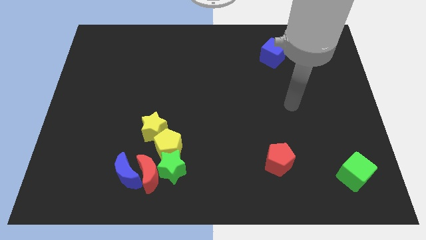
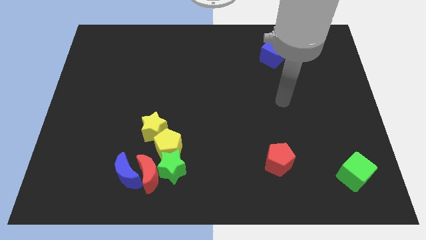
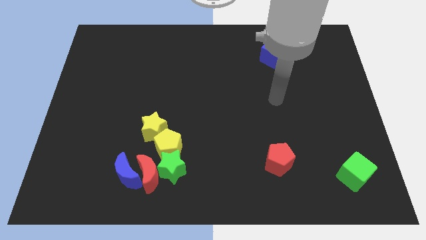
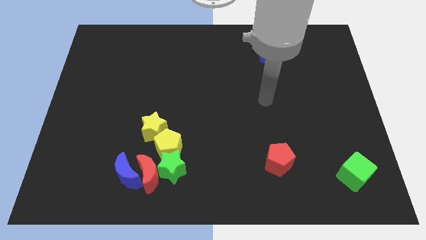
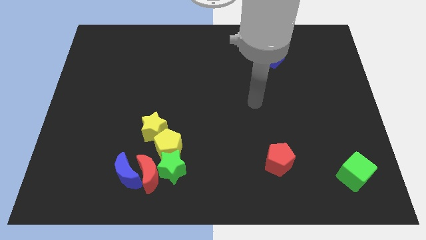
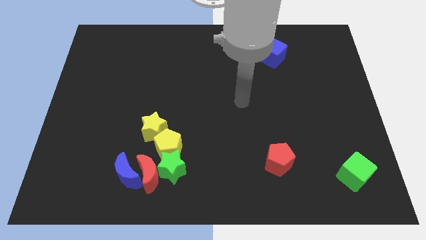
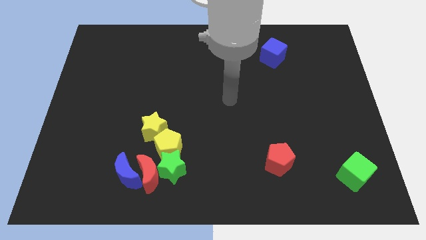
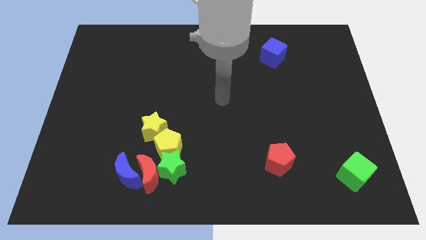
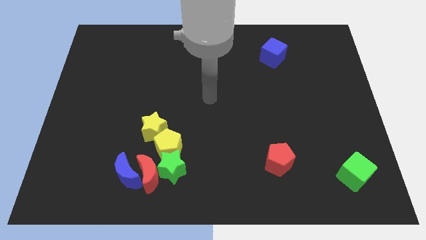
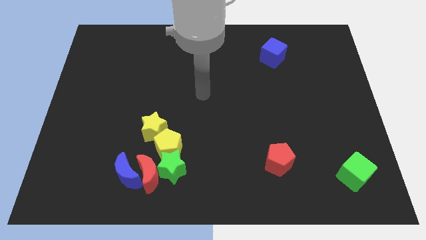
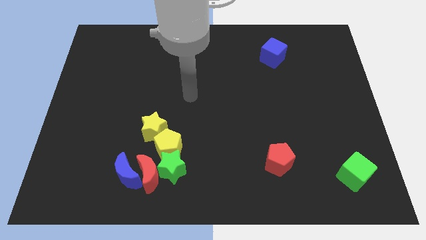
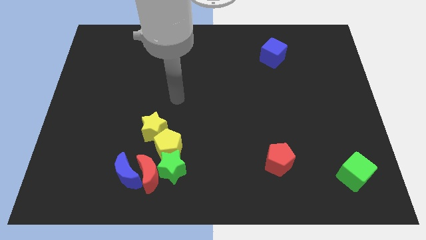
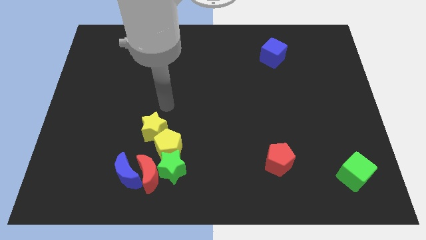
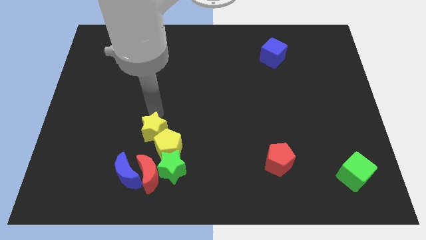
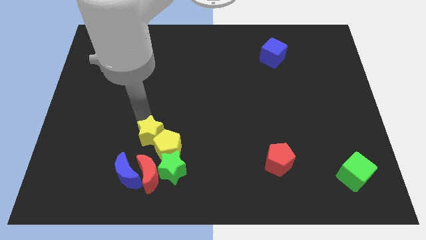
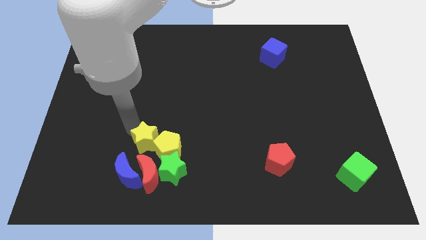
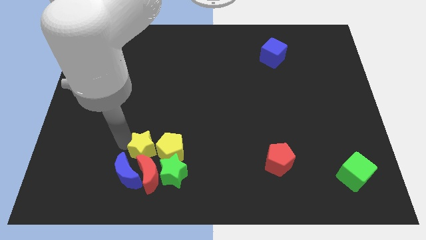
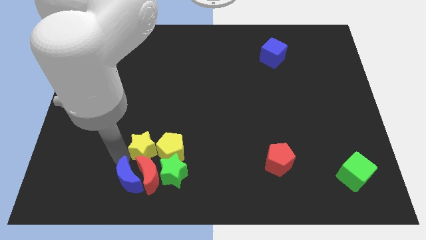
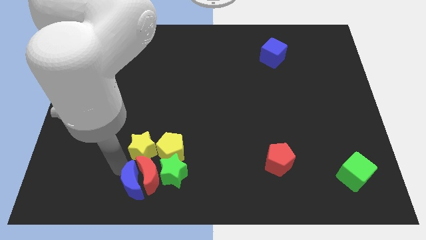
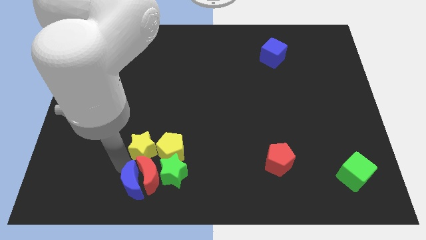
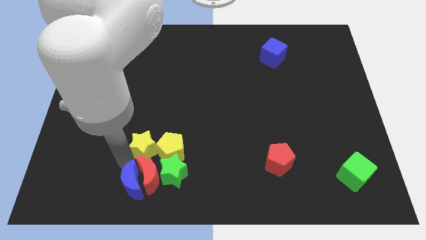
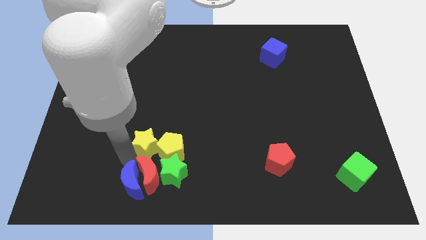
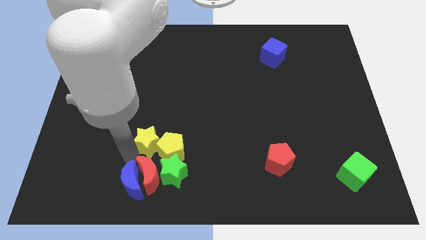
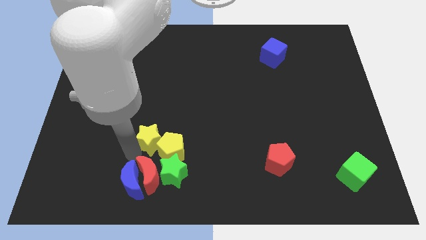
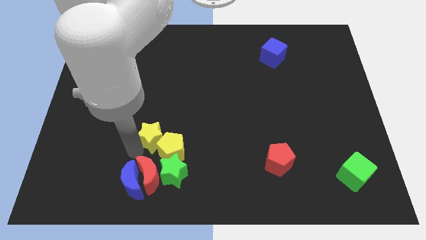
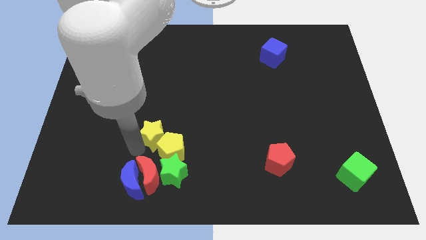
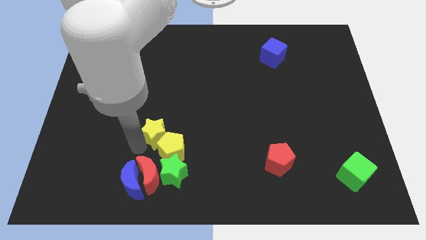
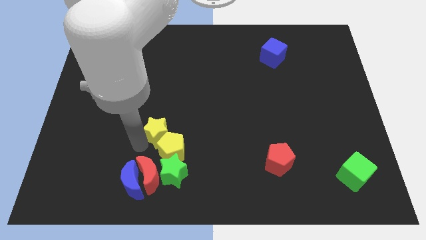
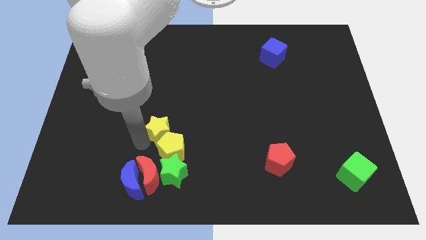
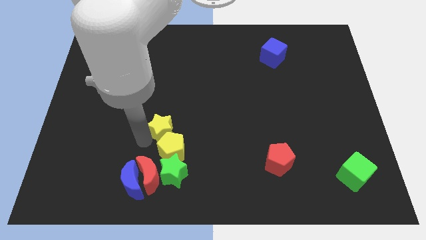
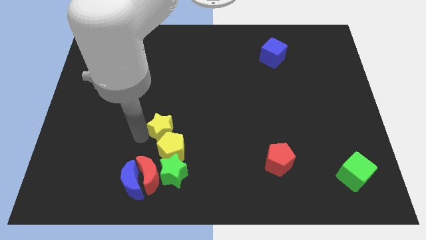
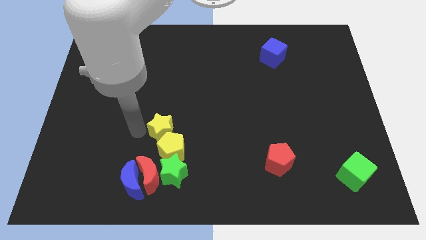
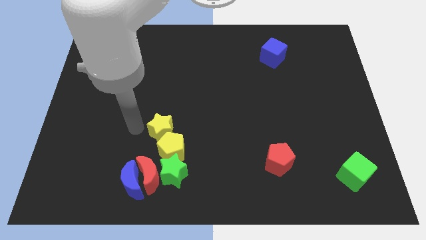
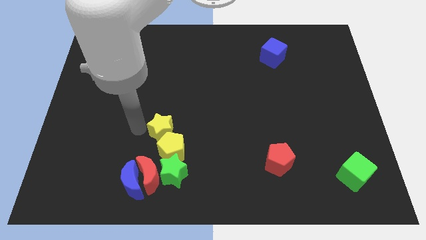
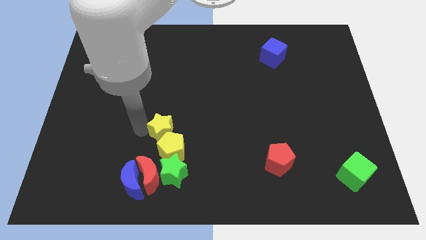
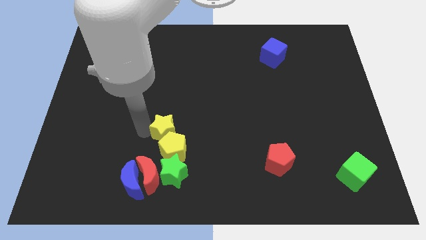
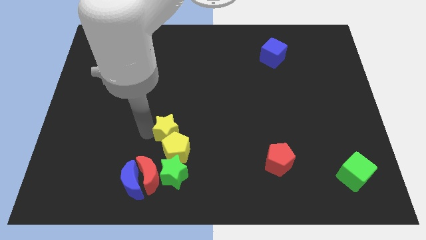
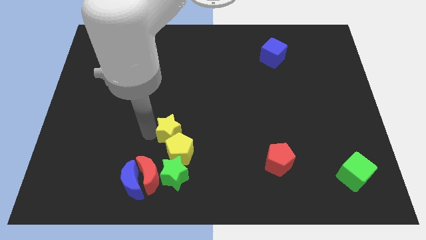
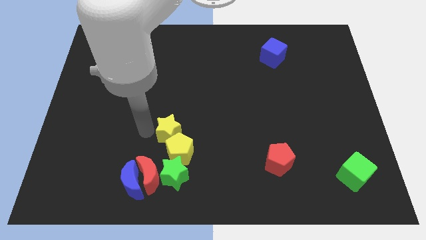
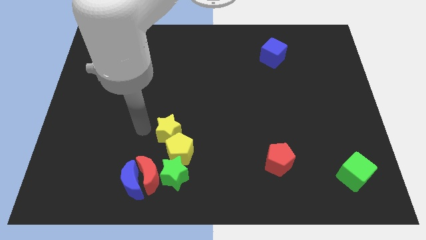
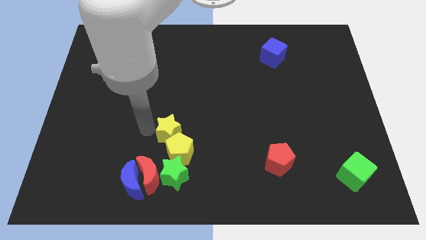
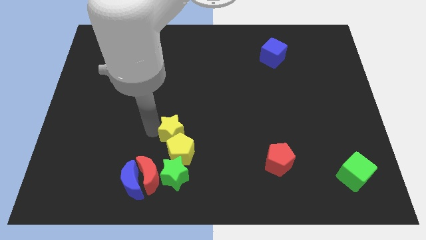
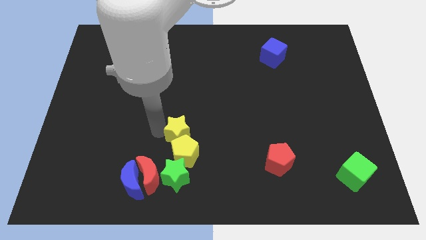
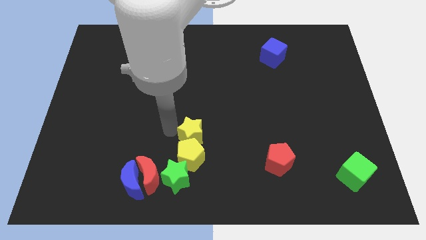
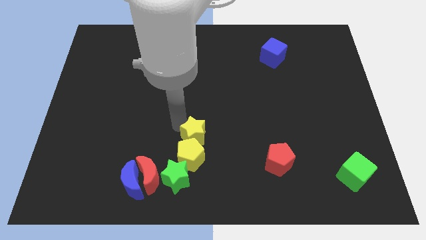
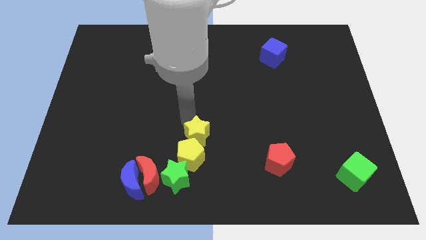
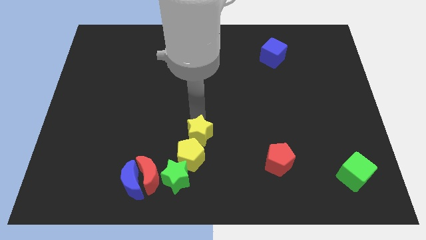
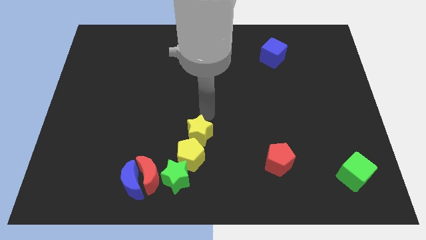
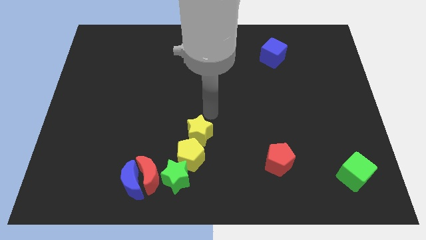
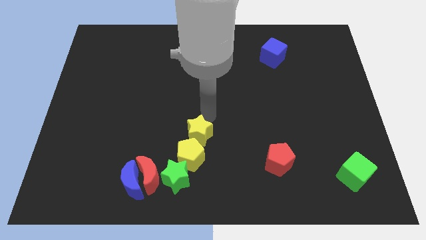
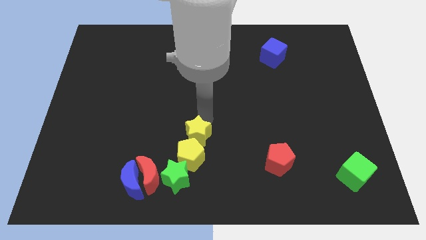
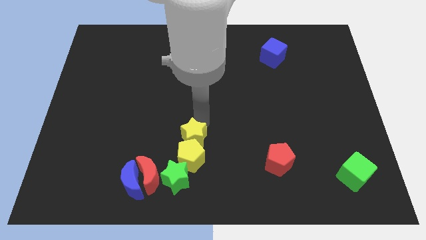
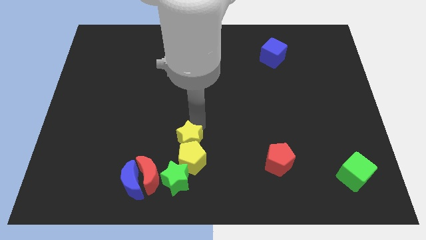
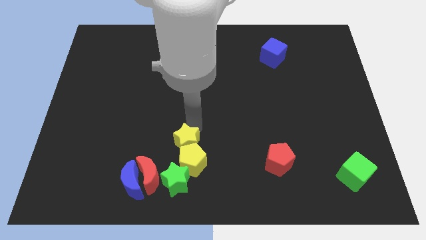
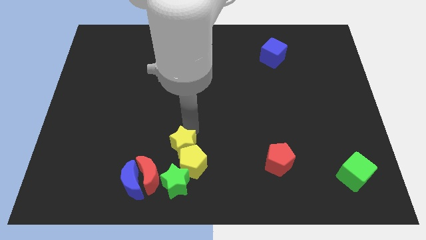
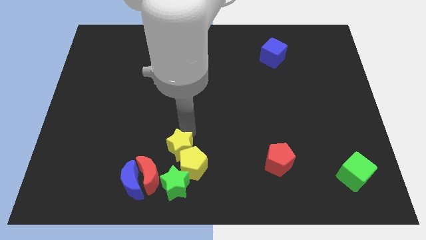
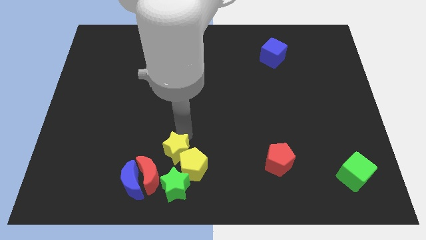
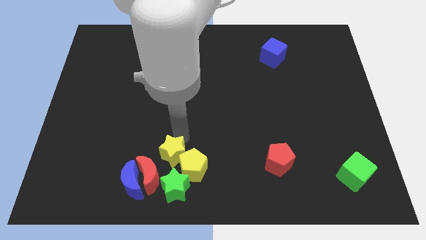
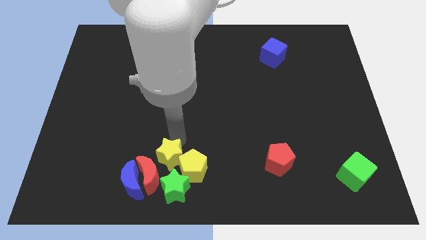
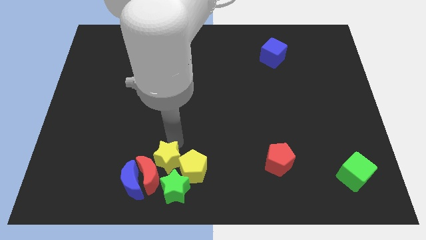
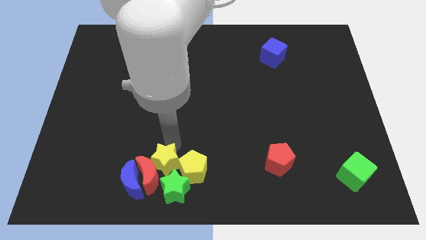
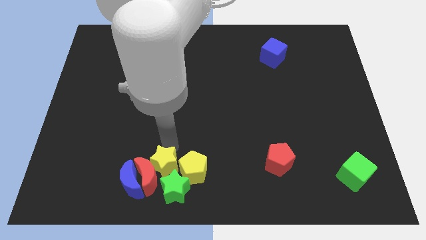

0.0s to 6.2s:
slide the yellow star to the green star
